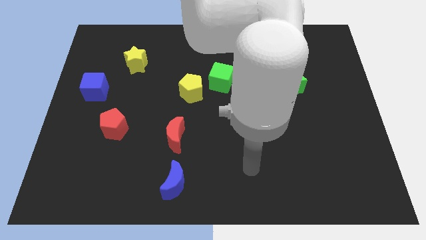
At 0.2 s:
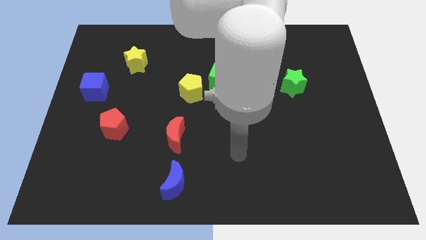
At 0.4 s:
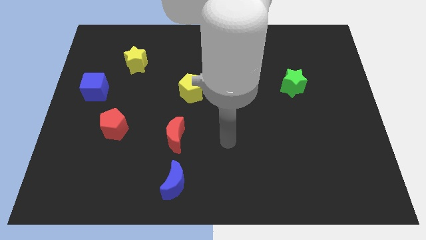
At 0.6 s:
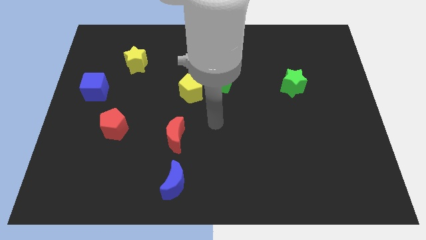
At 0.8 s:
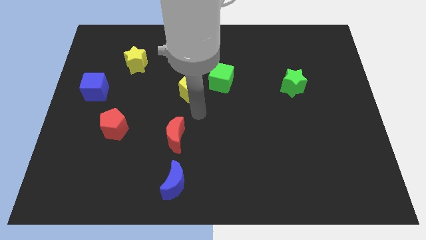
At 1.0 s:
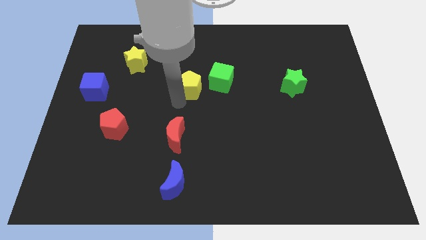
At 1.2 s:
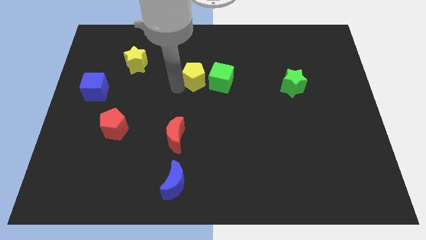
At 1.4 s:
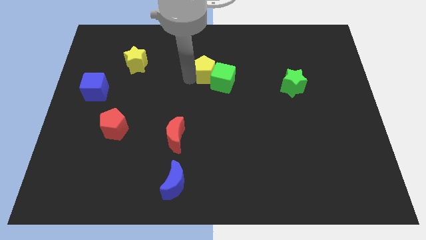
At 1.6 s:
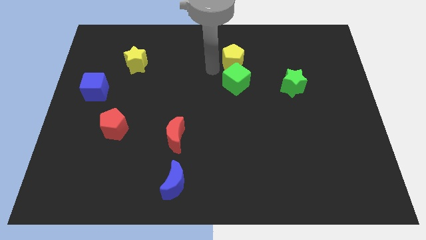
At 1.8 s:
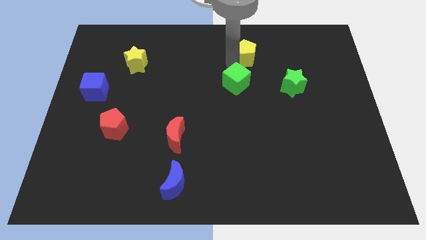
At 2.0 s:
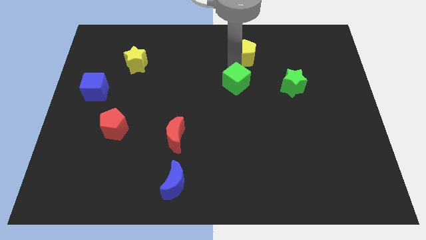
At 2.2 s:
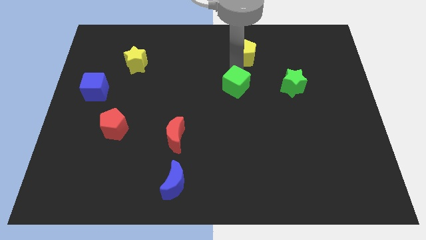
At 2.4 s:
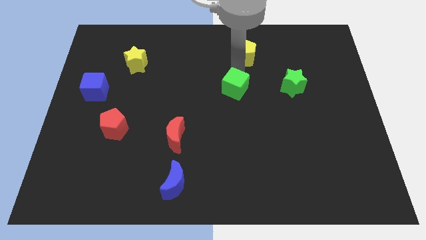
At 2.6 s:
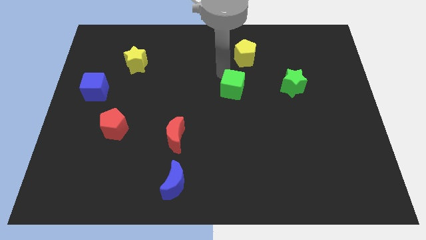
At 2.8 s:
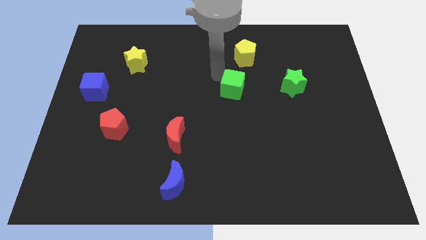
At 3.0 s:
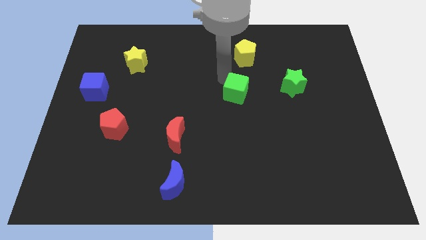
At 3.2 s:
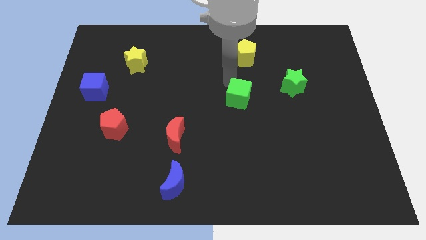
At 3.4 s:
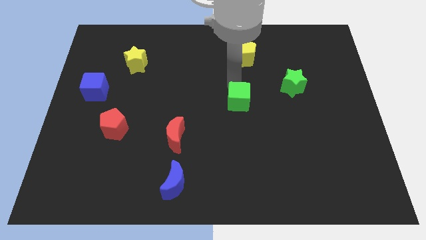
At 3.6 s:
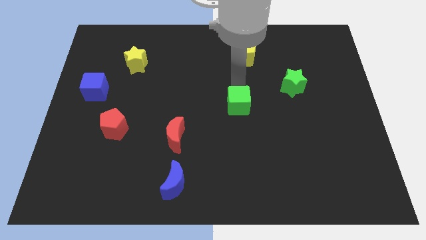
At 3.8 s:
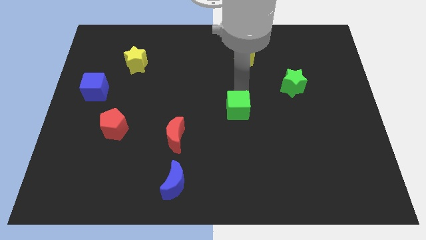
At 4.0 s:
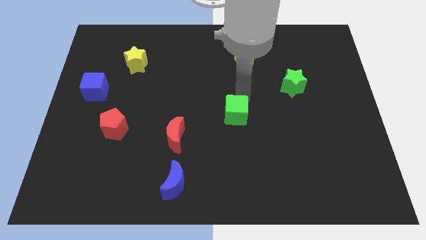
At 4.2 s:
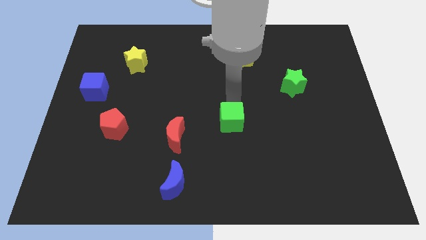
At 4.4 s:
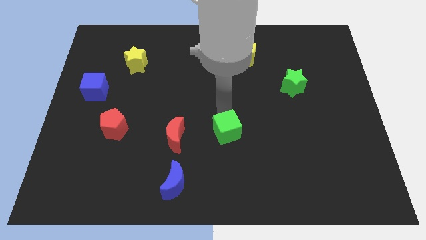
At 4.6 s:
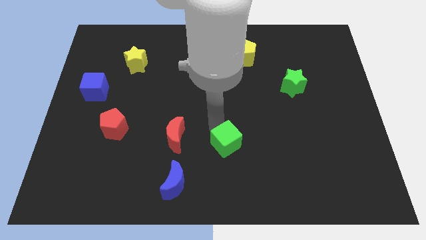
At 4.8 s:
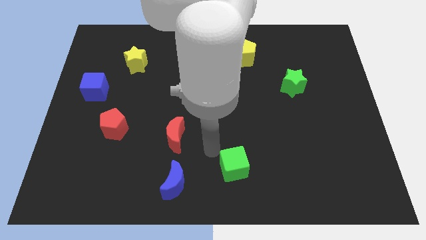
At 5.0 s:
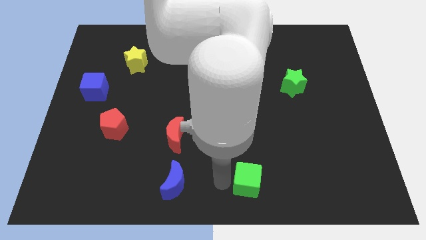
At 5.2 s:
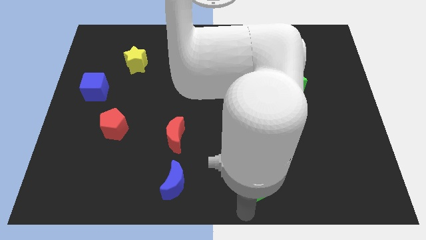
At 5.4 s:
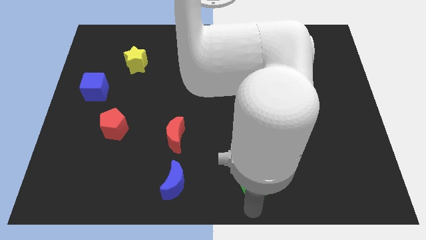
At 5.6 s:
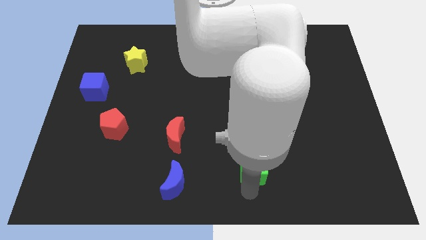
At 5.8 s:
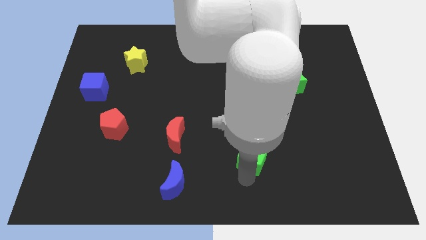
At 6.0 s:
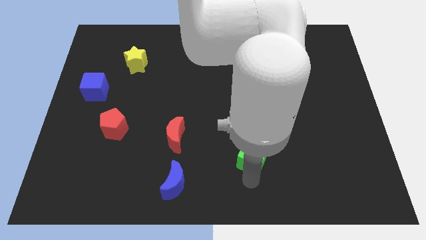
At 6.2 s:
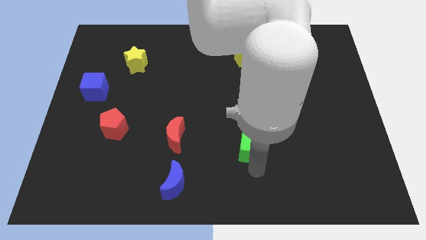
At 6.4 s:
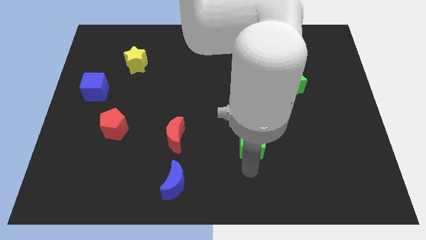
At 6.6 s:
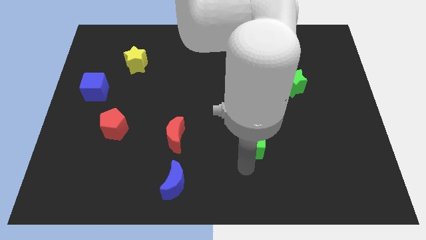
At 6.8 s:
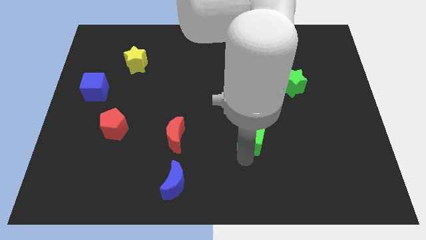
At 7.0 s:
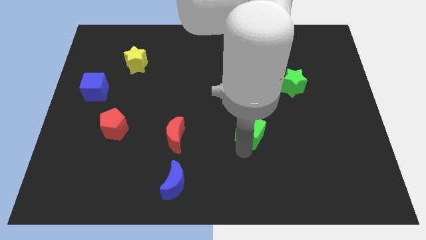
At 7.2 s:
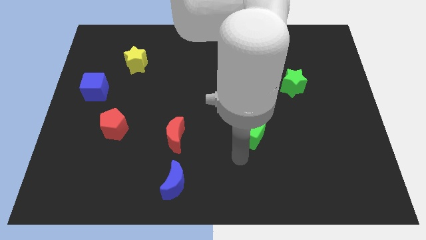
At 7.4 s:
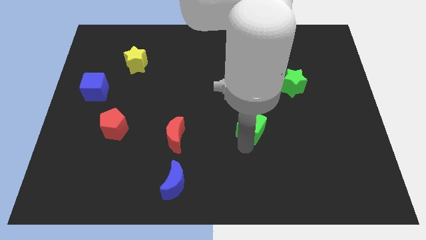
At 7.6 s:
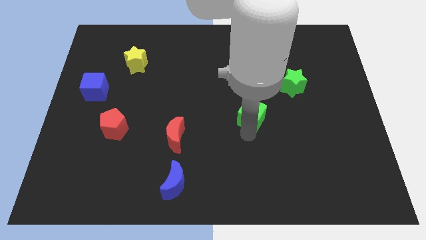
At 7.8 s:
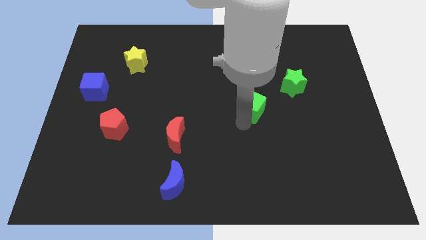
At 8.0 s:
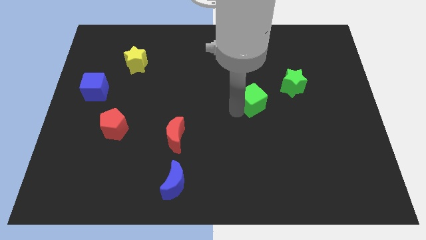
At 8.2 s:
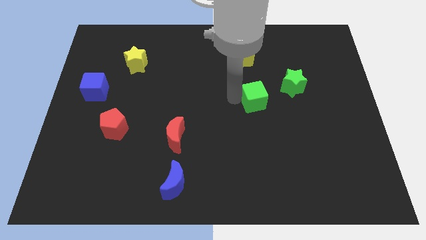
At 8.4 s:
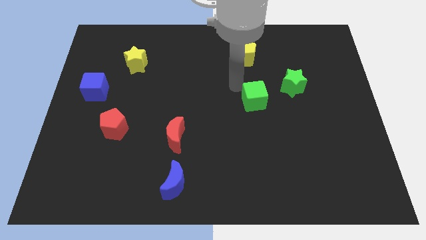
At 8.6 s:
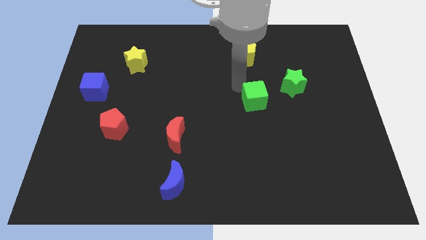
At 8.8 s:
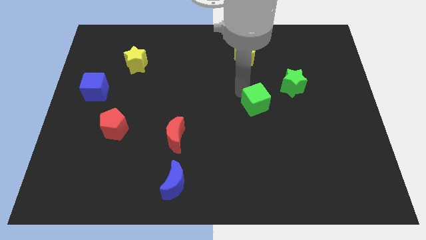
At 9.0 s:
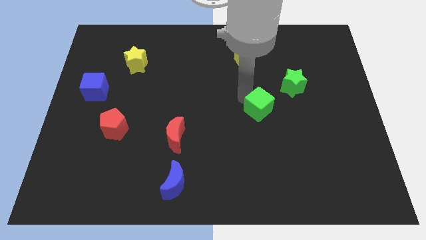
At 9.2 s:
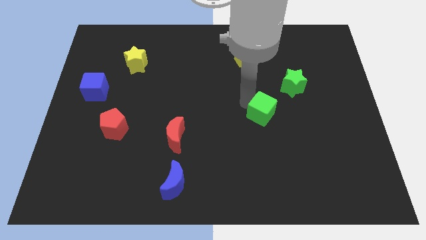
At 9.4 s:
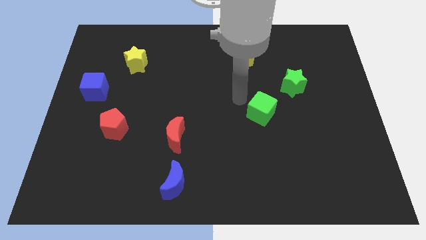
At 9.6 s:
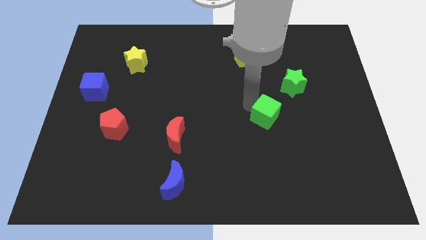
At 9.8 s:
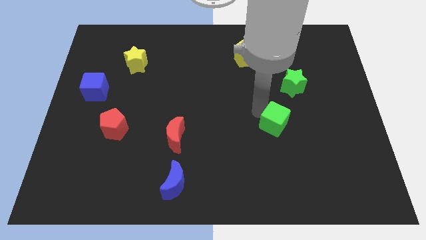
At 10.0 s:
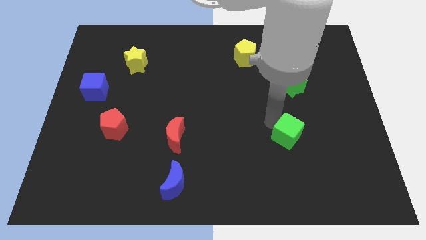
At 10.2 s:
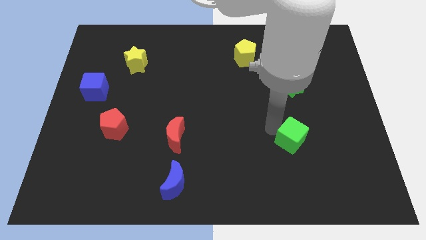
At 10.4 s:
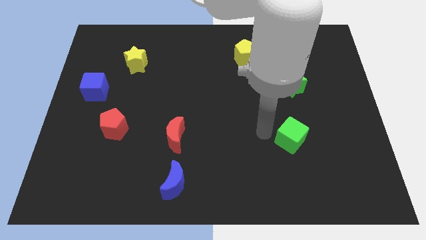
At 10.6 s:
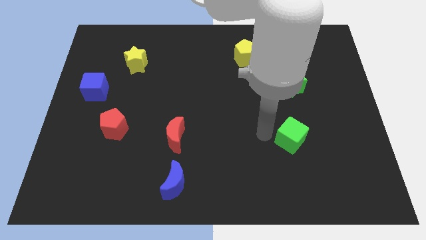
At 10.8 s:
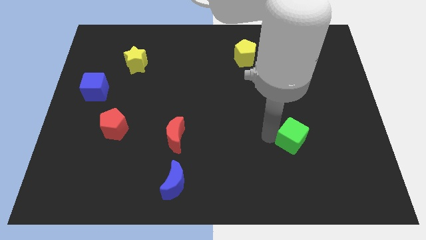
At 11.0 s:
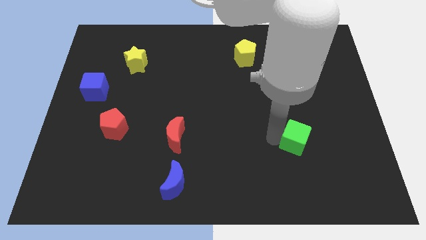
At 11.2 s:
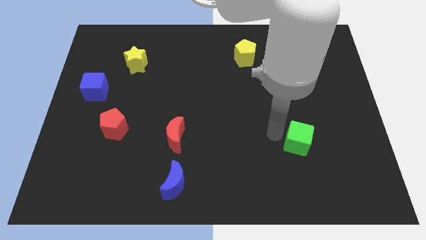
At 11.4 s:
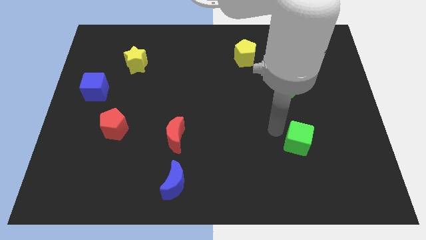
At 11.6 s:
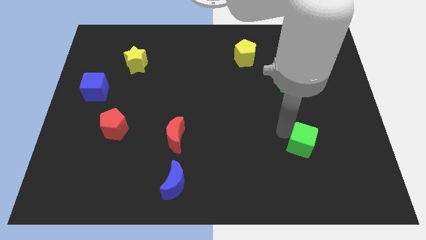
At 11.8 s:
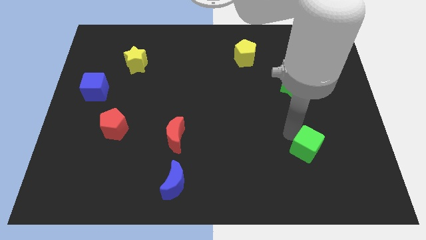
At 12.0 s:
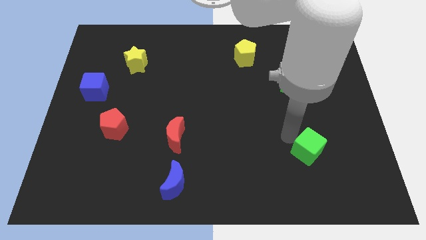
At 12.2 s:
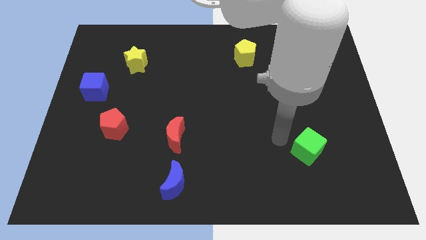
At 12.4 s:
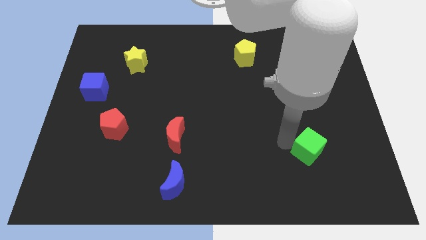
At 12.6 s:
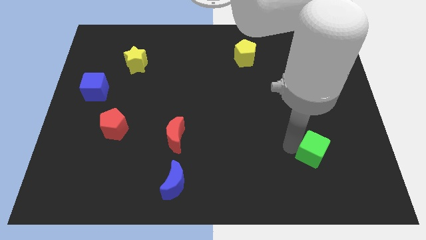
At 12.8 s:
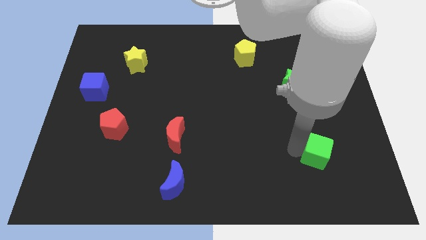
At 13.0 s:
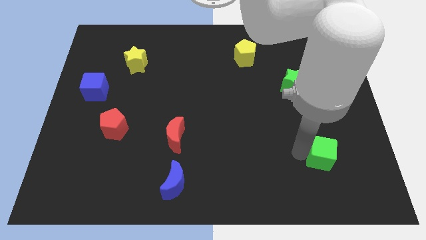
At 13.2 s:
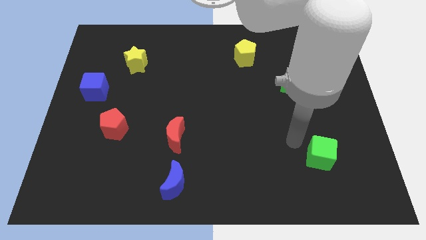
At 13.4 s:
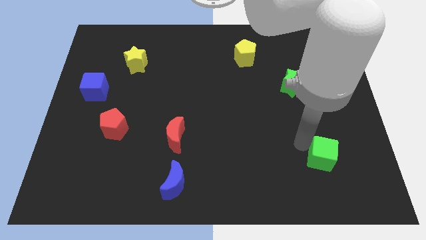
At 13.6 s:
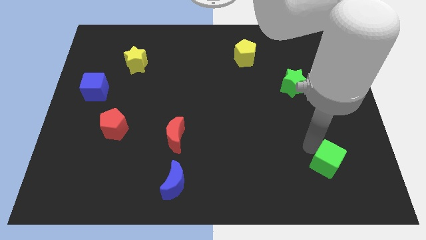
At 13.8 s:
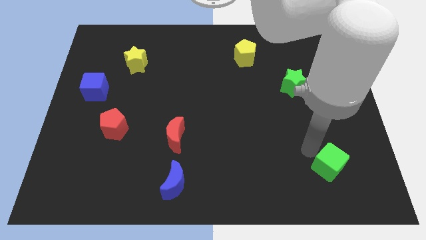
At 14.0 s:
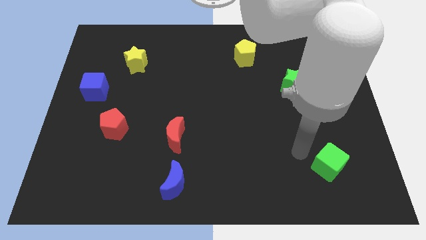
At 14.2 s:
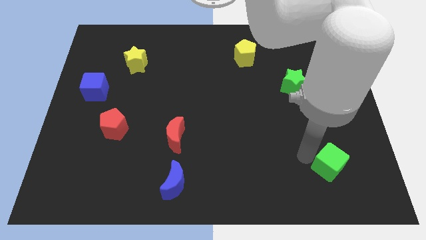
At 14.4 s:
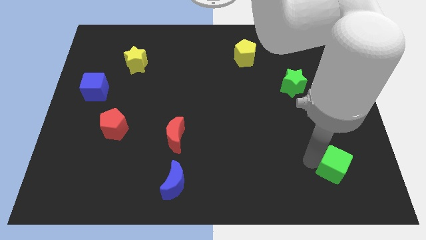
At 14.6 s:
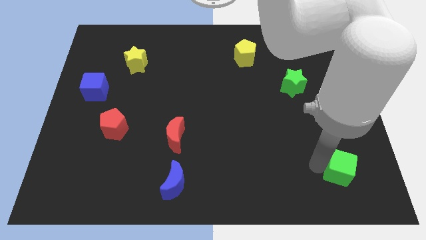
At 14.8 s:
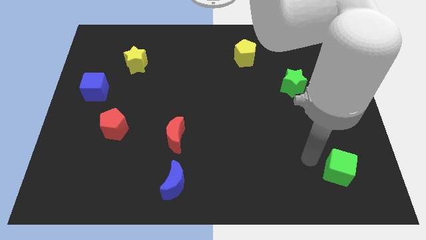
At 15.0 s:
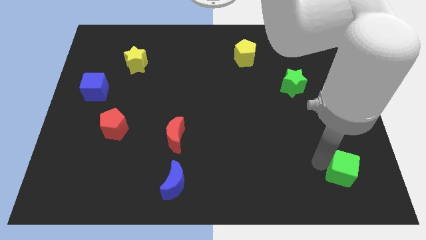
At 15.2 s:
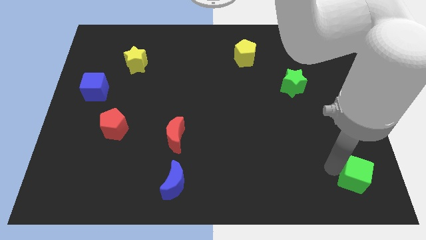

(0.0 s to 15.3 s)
push the green cube to the bottom right of the board
